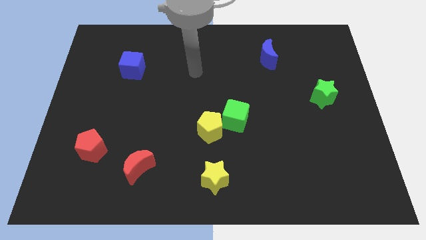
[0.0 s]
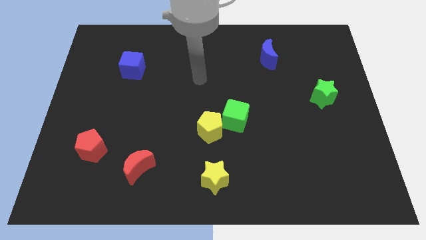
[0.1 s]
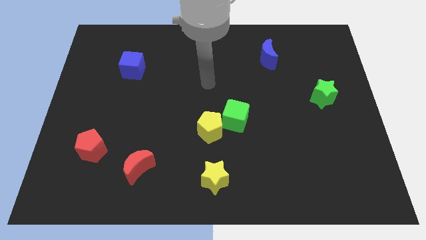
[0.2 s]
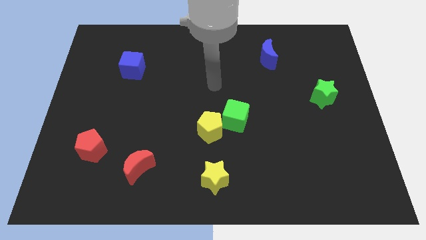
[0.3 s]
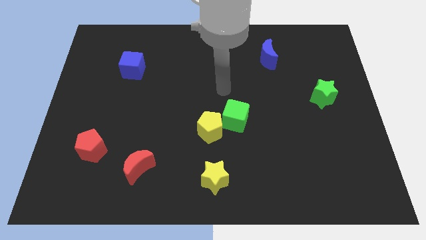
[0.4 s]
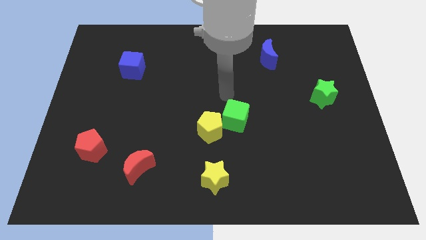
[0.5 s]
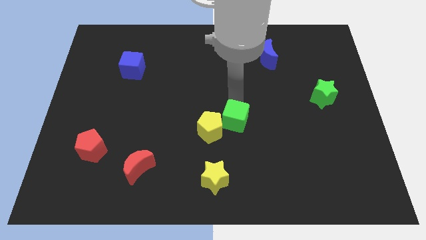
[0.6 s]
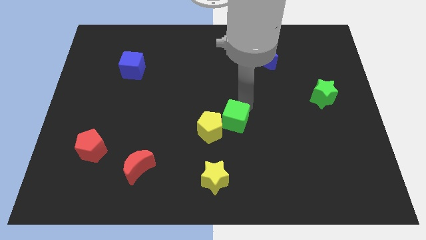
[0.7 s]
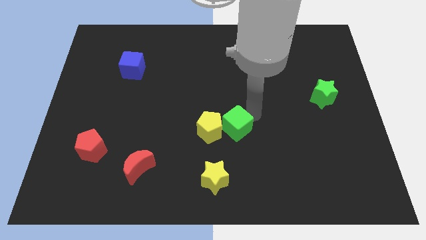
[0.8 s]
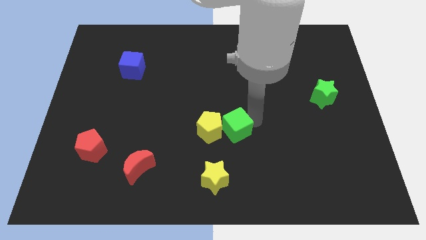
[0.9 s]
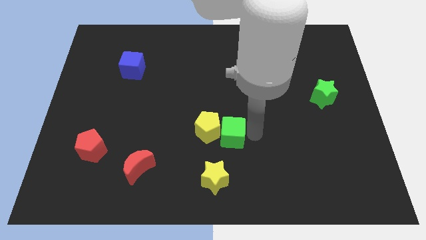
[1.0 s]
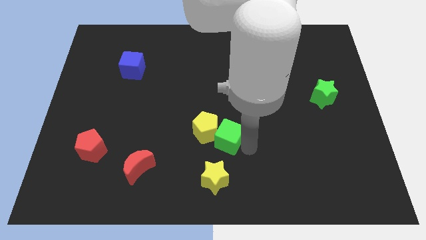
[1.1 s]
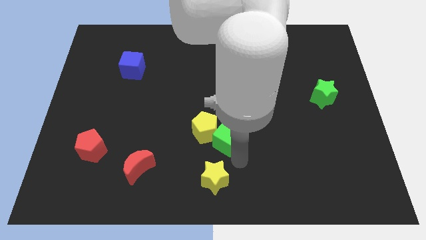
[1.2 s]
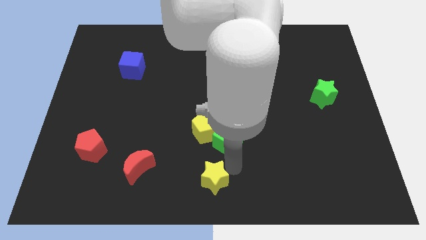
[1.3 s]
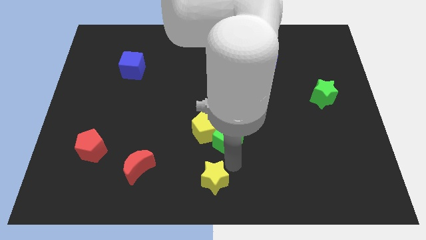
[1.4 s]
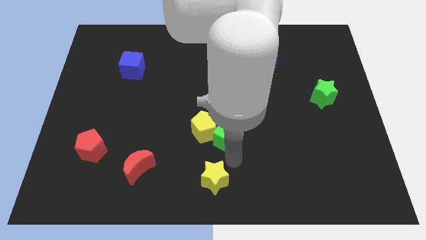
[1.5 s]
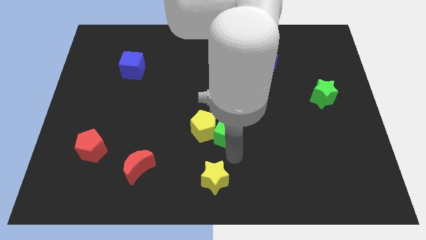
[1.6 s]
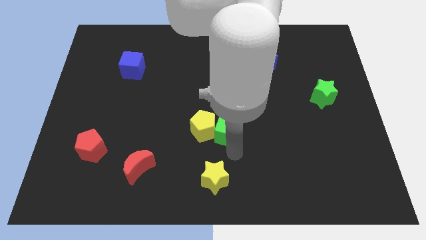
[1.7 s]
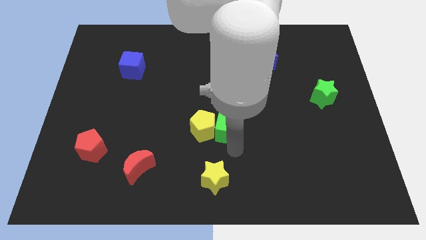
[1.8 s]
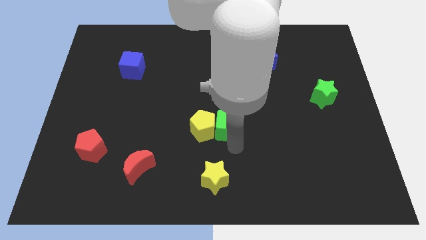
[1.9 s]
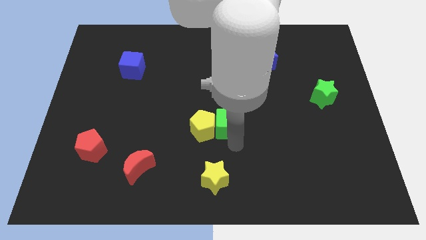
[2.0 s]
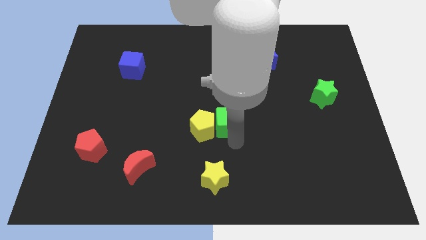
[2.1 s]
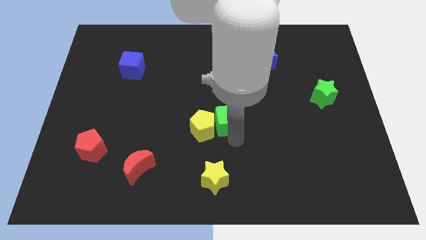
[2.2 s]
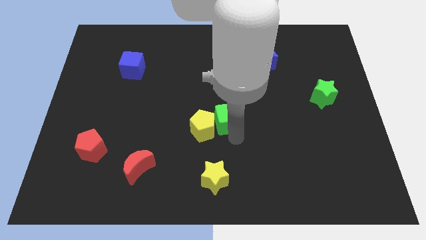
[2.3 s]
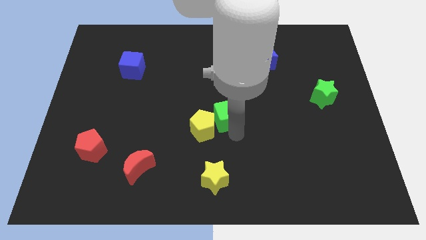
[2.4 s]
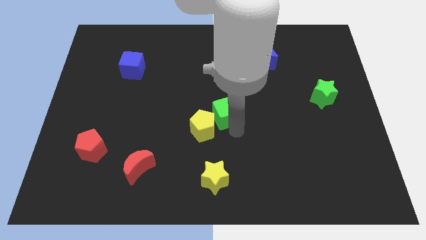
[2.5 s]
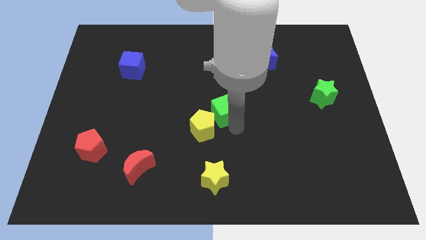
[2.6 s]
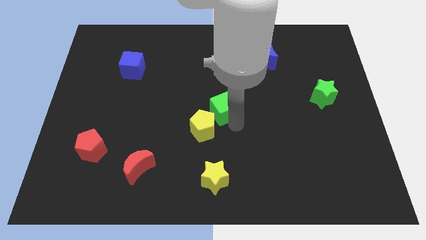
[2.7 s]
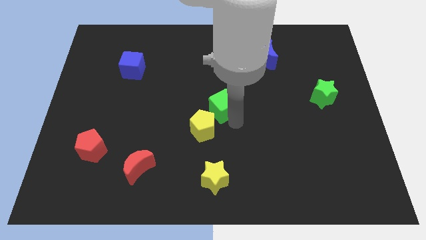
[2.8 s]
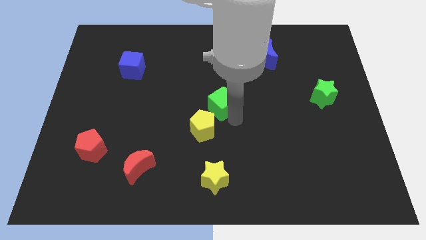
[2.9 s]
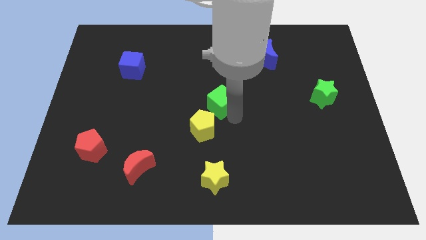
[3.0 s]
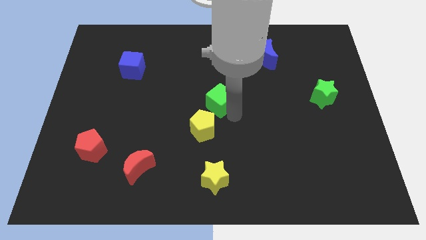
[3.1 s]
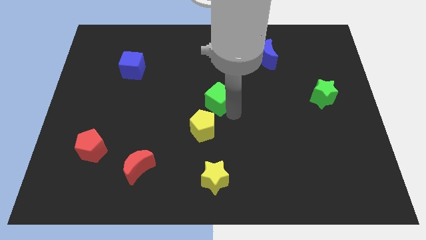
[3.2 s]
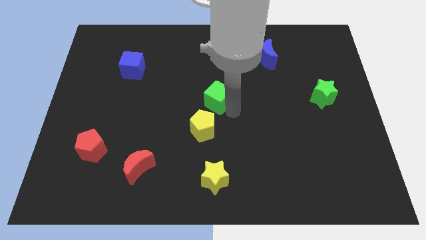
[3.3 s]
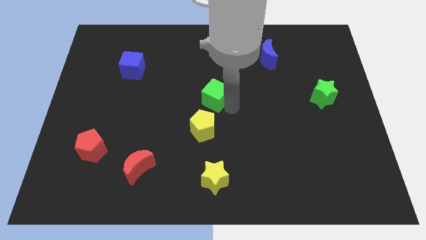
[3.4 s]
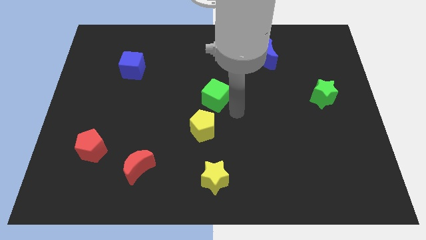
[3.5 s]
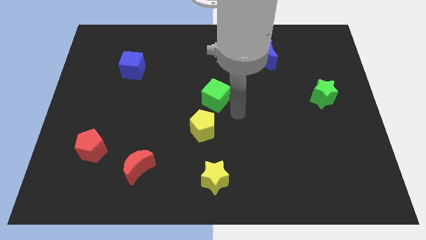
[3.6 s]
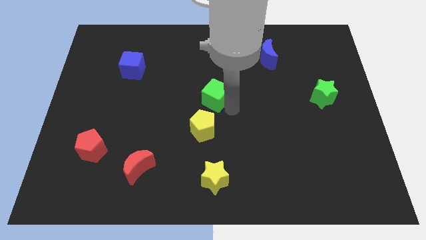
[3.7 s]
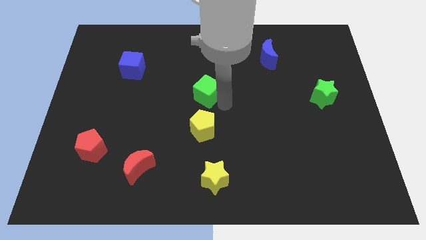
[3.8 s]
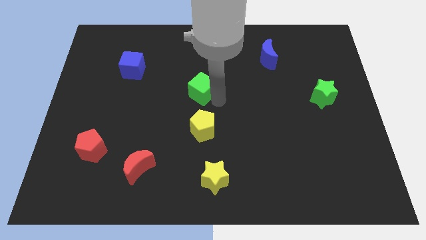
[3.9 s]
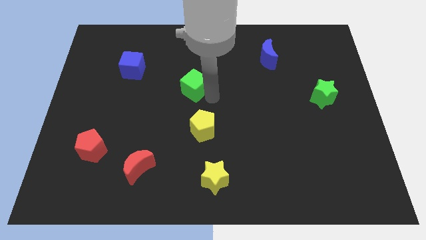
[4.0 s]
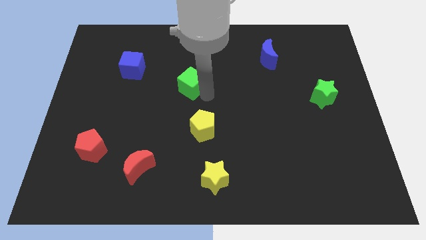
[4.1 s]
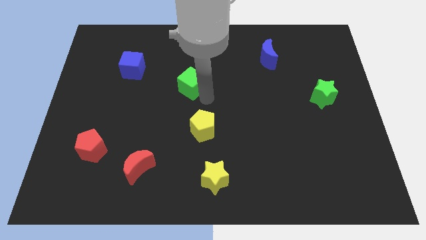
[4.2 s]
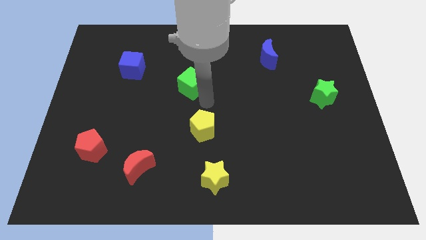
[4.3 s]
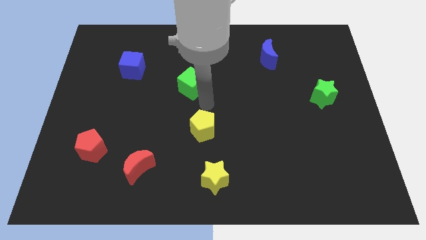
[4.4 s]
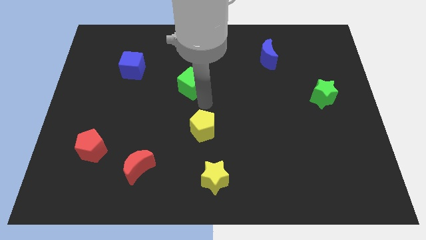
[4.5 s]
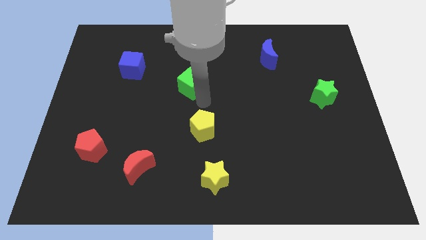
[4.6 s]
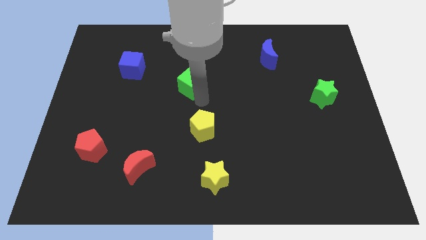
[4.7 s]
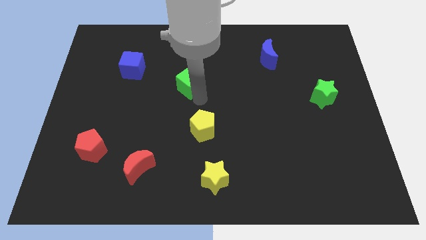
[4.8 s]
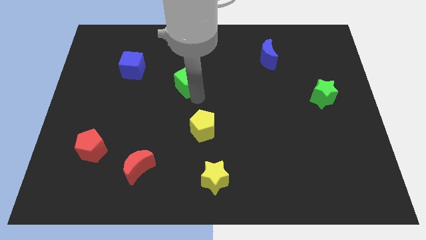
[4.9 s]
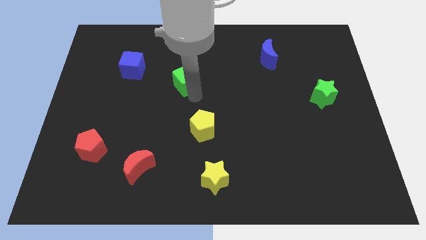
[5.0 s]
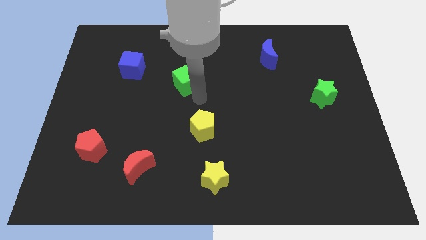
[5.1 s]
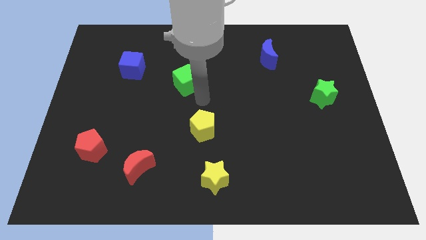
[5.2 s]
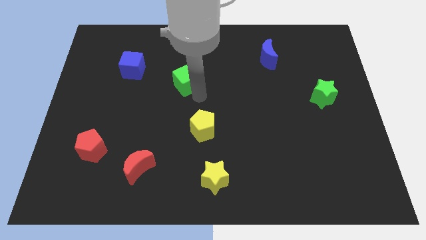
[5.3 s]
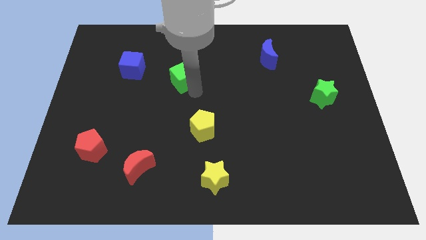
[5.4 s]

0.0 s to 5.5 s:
push the green cube to the right side of the blue cube

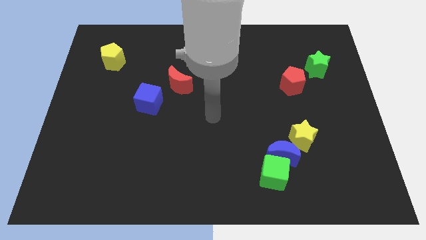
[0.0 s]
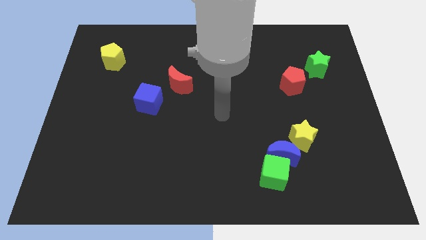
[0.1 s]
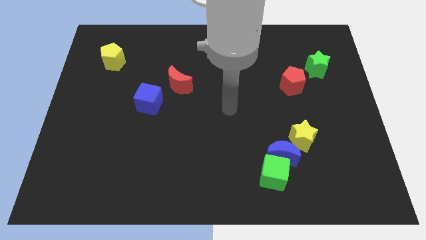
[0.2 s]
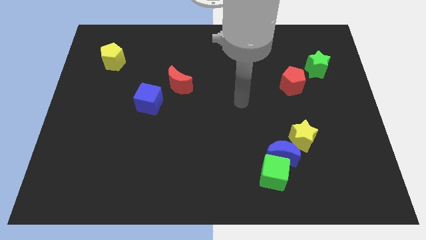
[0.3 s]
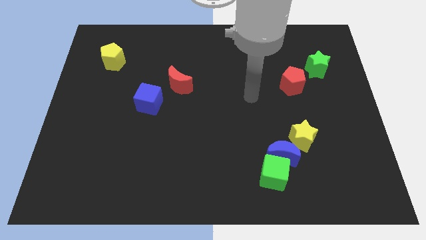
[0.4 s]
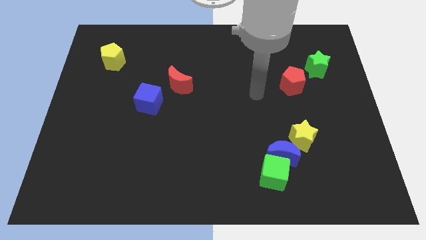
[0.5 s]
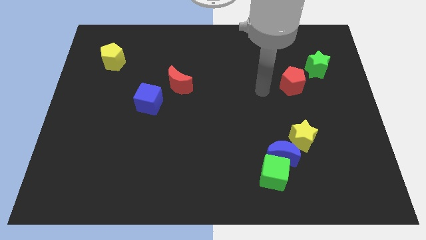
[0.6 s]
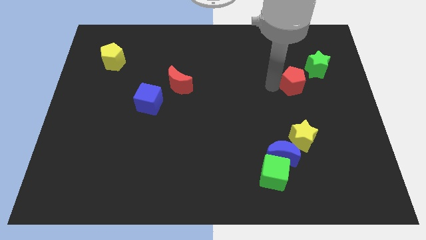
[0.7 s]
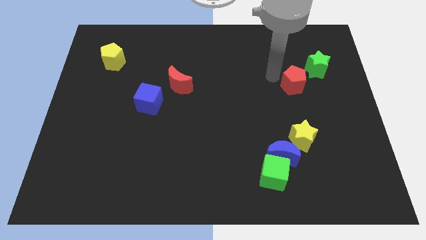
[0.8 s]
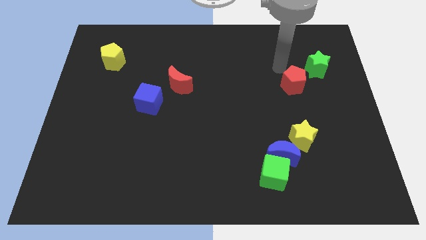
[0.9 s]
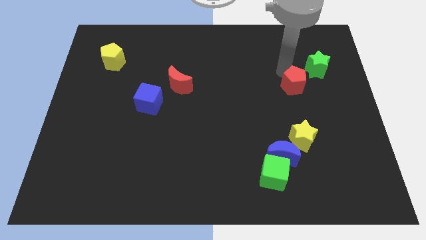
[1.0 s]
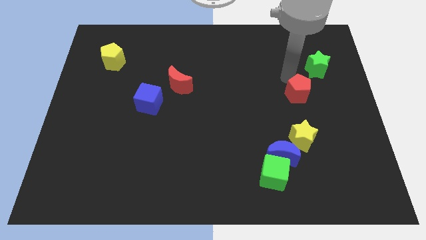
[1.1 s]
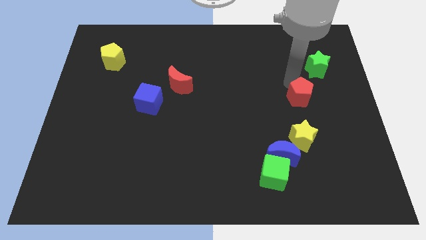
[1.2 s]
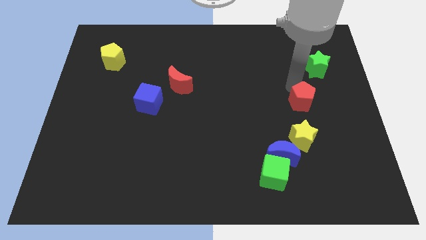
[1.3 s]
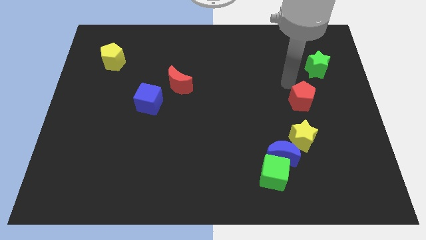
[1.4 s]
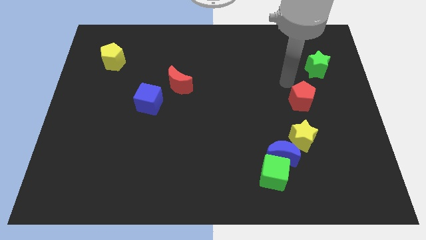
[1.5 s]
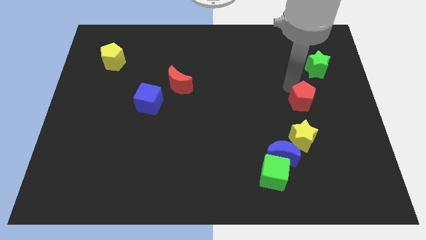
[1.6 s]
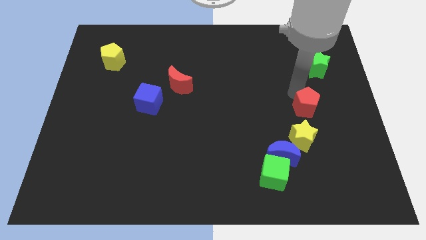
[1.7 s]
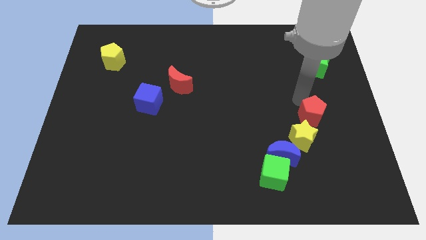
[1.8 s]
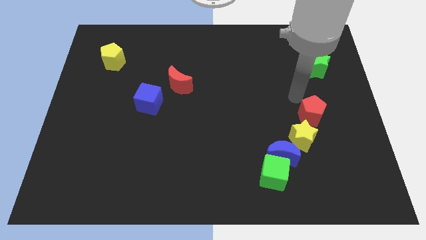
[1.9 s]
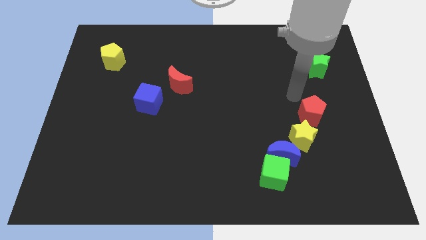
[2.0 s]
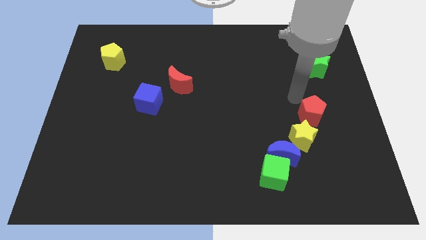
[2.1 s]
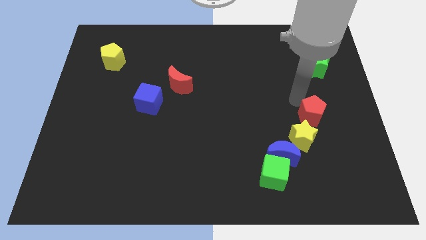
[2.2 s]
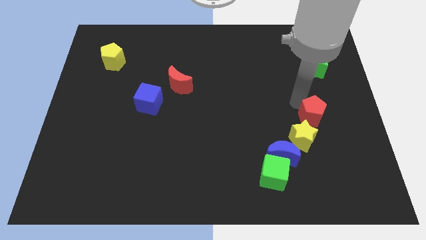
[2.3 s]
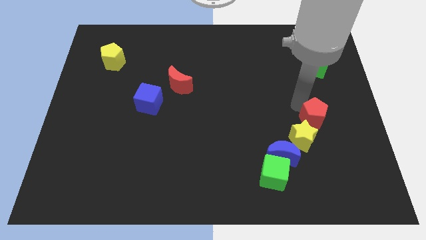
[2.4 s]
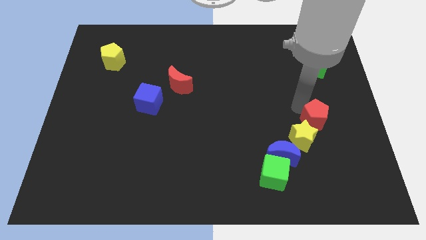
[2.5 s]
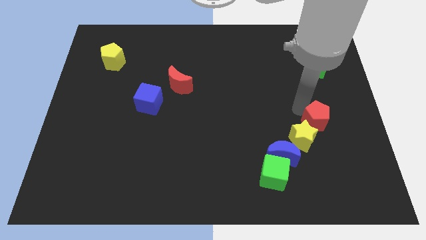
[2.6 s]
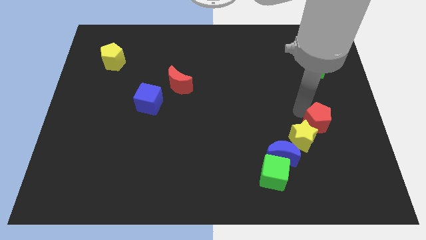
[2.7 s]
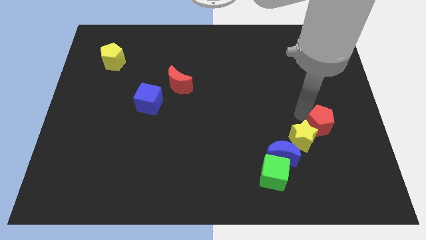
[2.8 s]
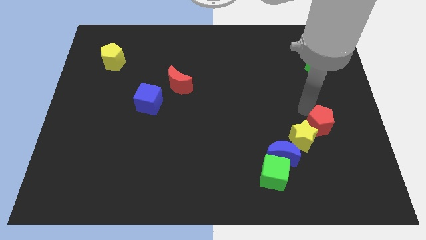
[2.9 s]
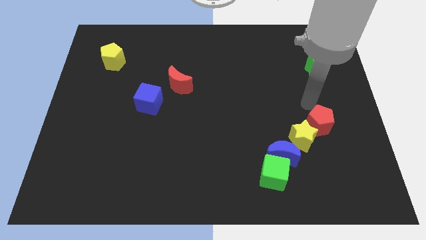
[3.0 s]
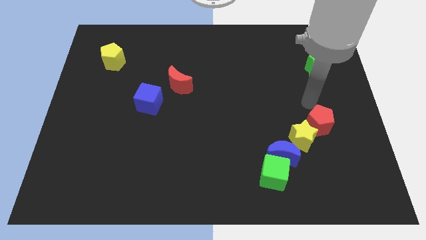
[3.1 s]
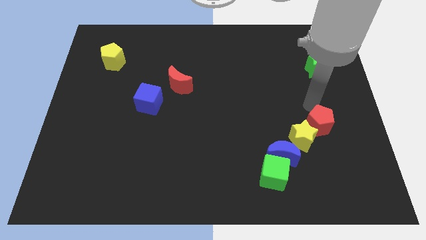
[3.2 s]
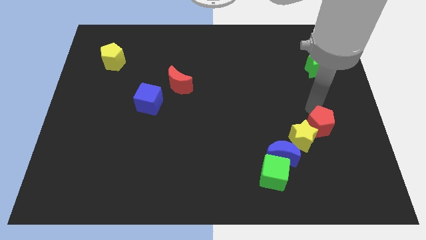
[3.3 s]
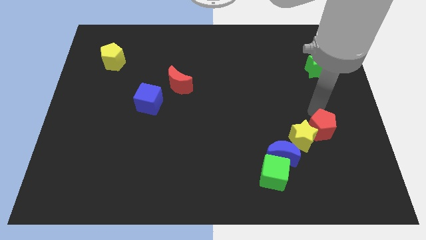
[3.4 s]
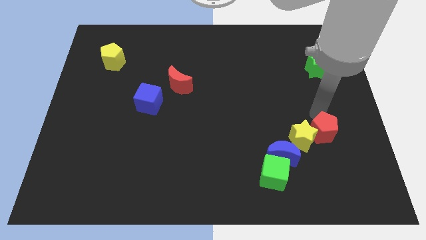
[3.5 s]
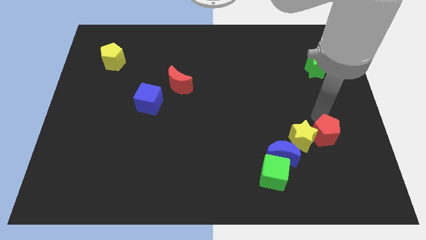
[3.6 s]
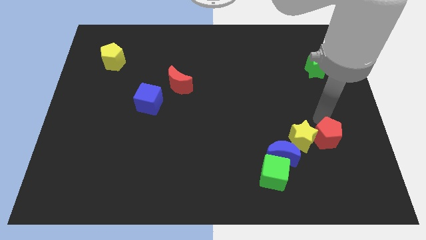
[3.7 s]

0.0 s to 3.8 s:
put the red pentagon to the right of the blue moon
